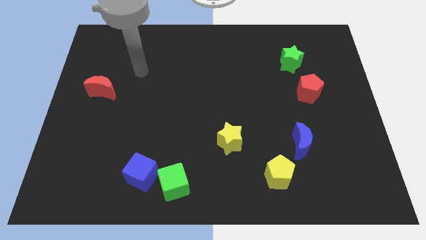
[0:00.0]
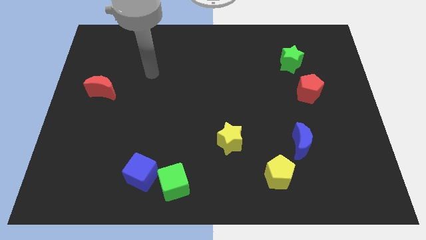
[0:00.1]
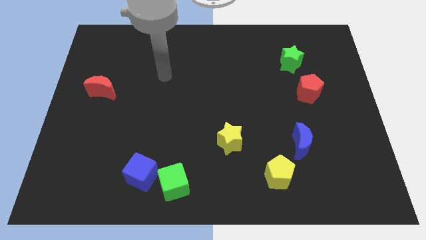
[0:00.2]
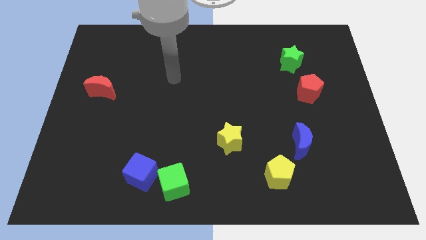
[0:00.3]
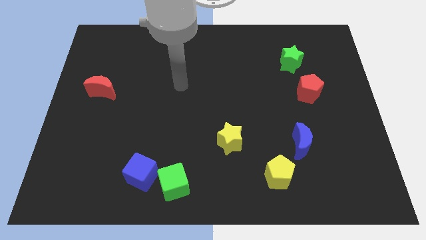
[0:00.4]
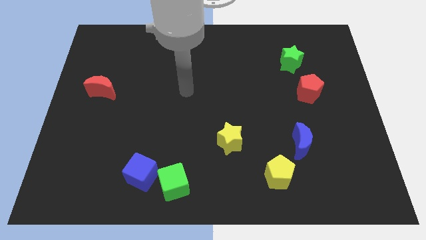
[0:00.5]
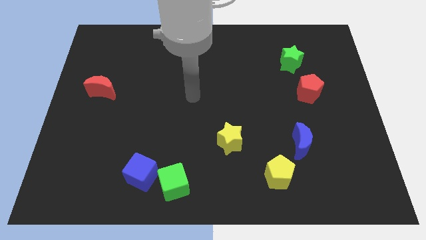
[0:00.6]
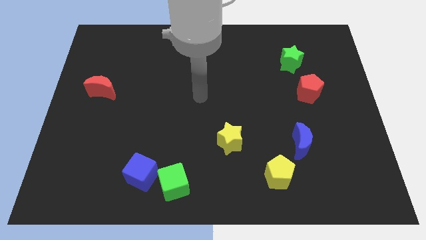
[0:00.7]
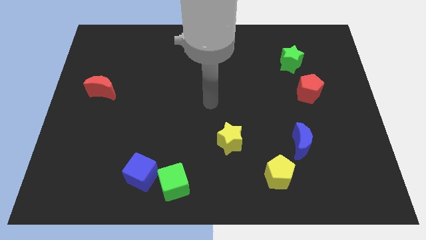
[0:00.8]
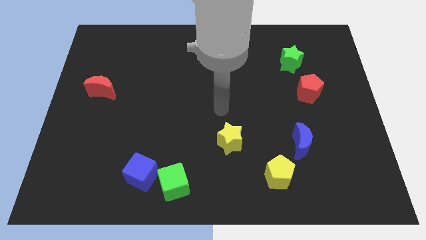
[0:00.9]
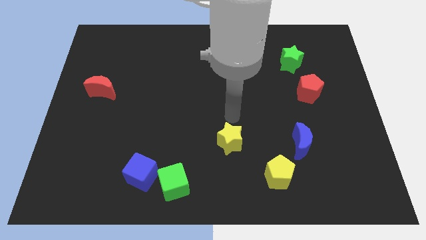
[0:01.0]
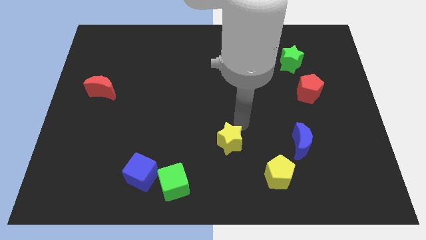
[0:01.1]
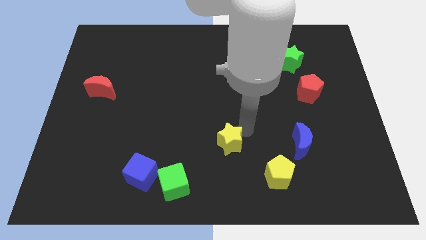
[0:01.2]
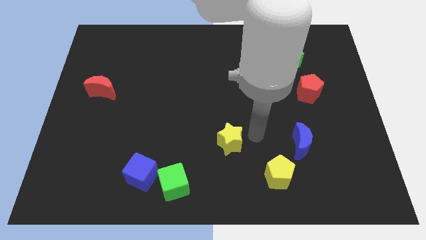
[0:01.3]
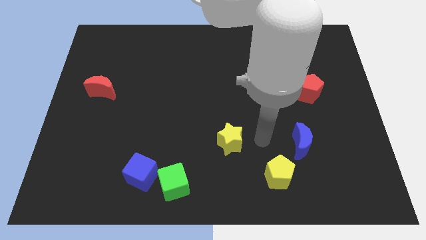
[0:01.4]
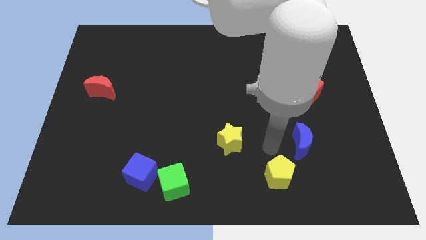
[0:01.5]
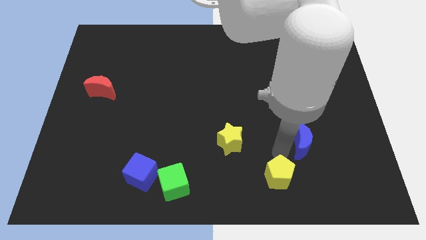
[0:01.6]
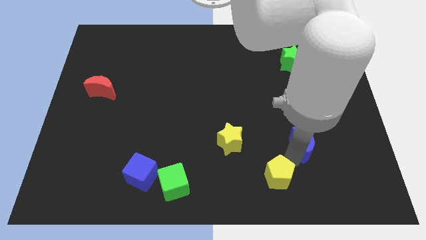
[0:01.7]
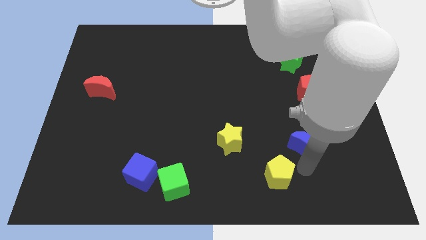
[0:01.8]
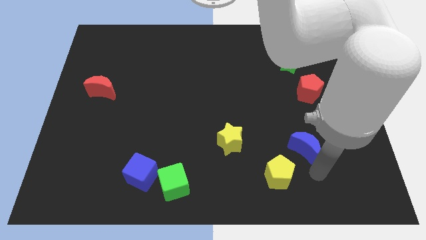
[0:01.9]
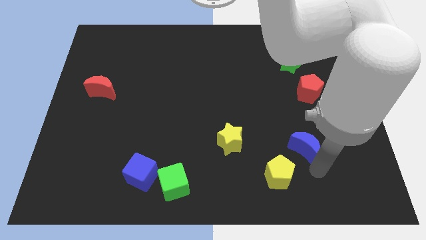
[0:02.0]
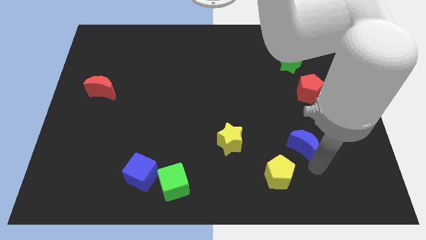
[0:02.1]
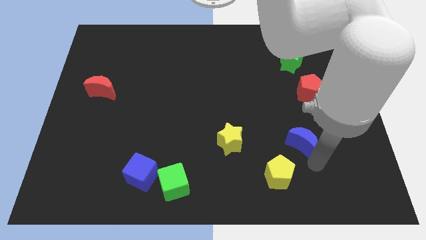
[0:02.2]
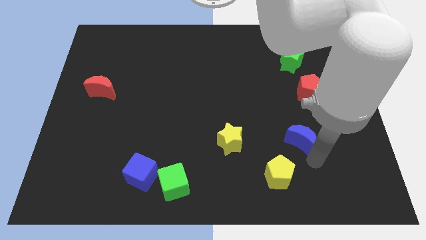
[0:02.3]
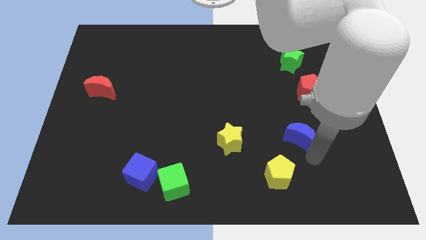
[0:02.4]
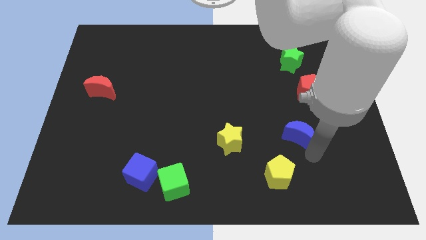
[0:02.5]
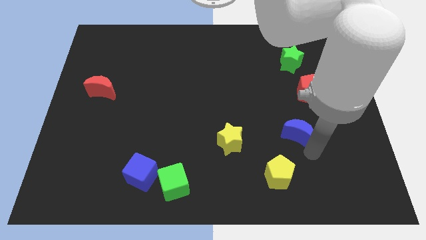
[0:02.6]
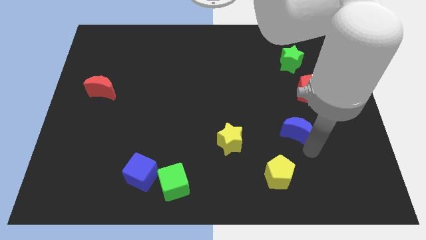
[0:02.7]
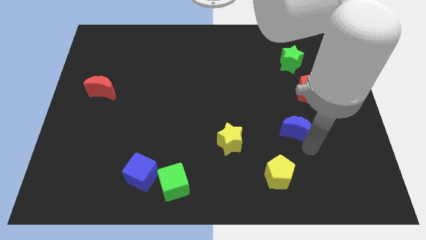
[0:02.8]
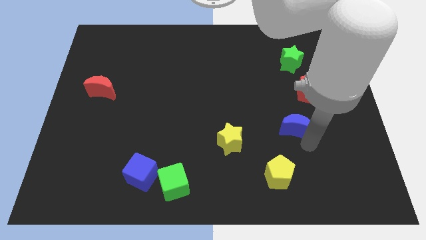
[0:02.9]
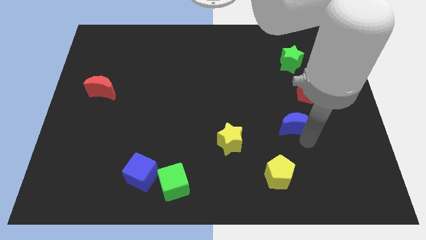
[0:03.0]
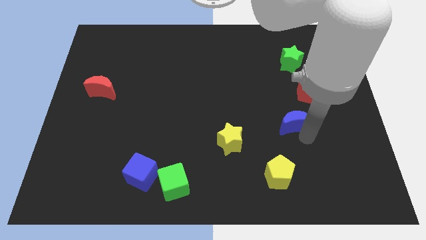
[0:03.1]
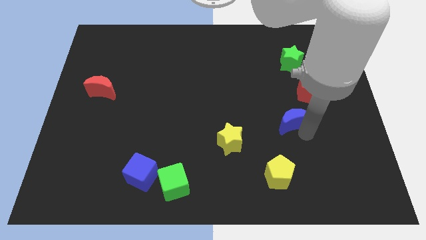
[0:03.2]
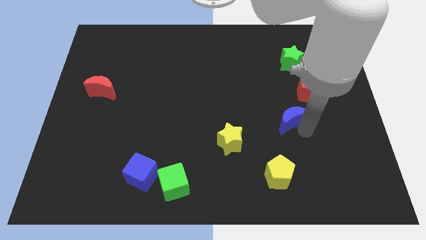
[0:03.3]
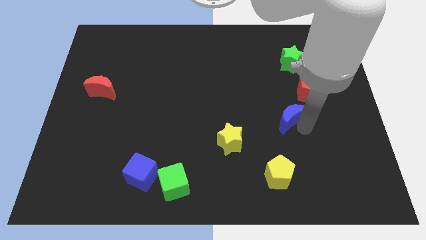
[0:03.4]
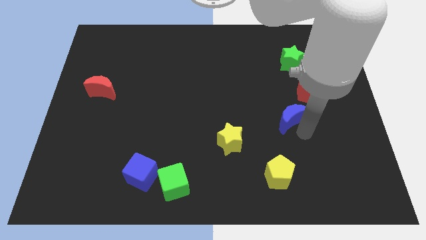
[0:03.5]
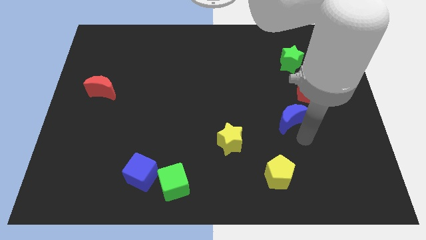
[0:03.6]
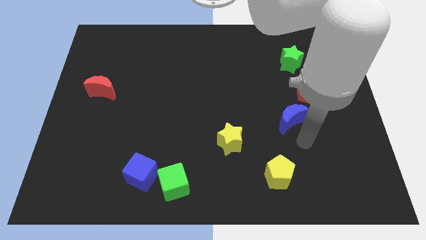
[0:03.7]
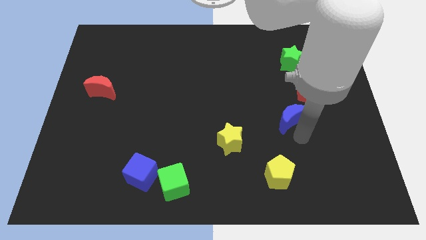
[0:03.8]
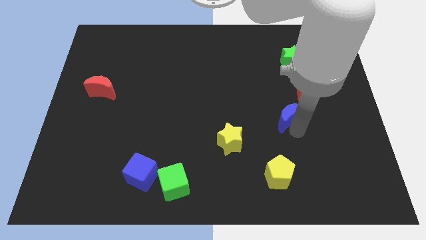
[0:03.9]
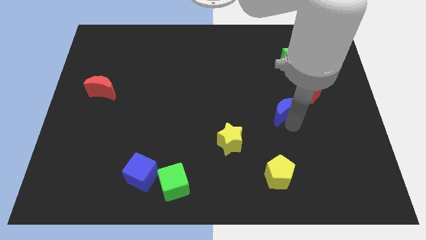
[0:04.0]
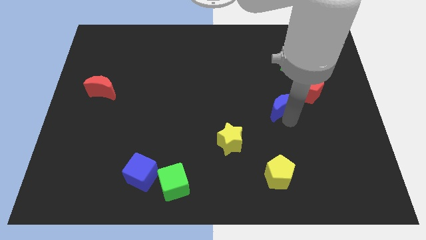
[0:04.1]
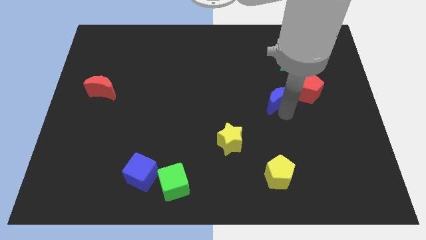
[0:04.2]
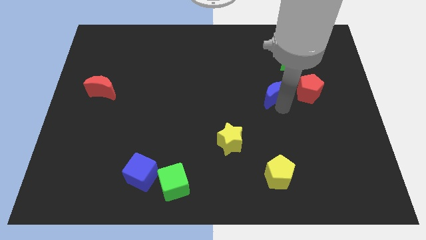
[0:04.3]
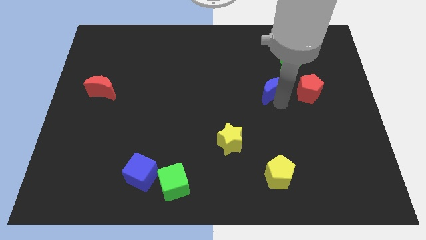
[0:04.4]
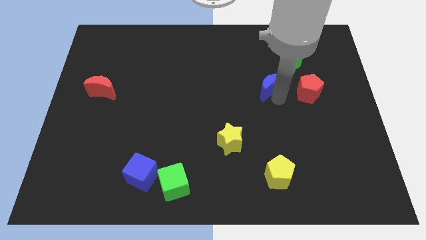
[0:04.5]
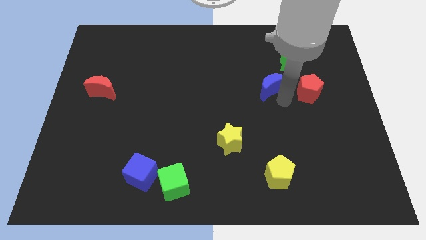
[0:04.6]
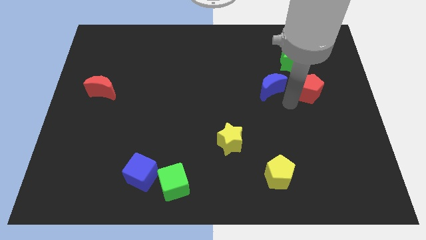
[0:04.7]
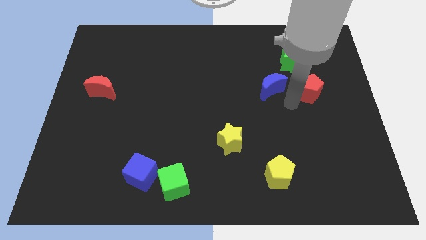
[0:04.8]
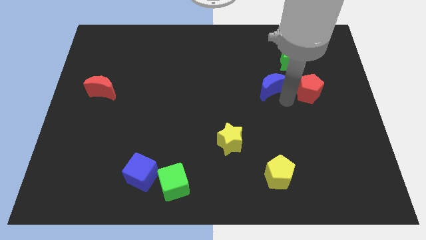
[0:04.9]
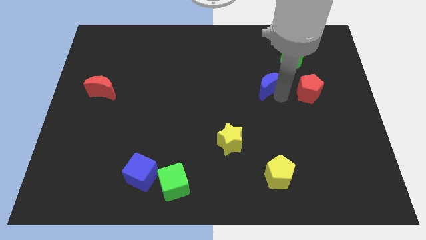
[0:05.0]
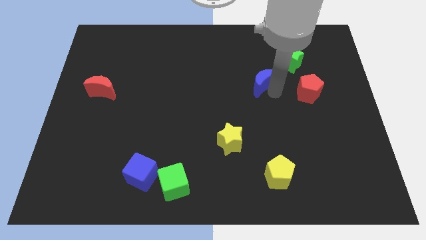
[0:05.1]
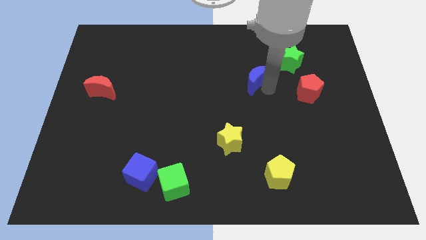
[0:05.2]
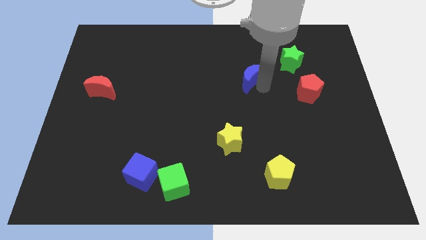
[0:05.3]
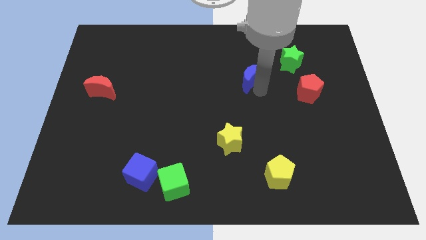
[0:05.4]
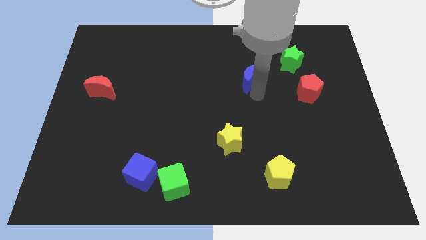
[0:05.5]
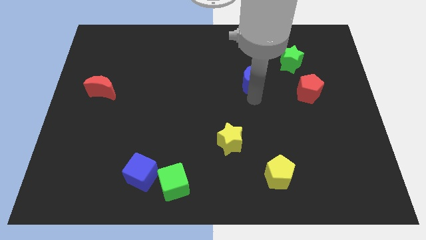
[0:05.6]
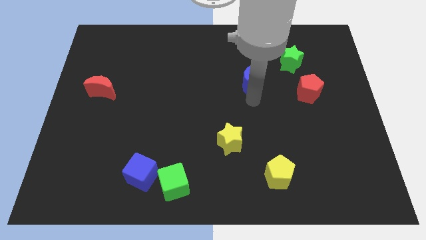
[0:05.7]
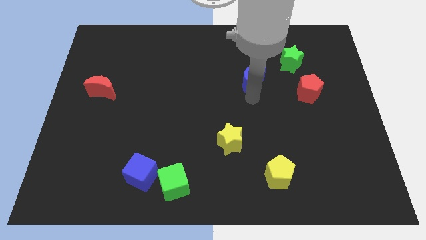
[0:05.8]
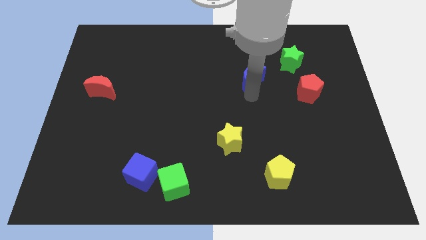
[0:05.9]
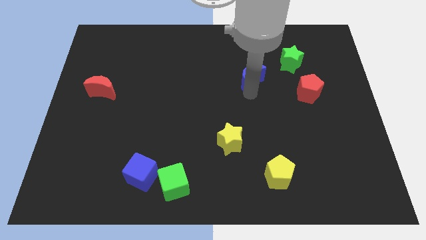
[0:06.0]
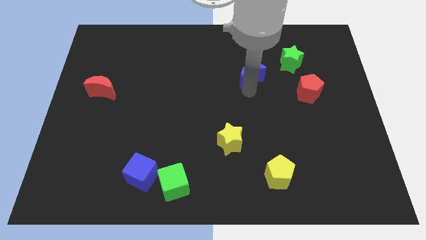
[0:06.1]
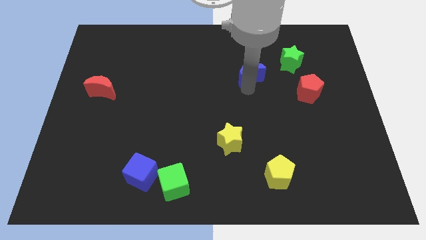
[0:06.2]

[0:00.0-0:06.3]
move the blue moon to the left of the green star

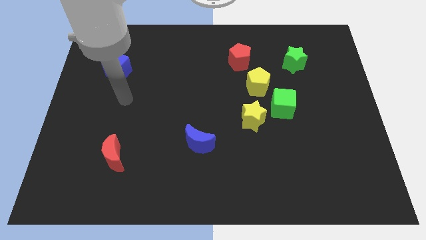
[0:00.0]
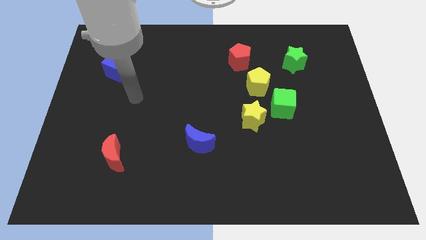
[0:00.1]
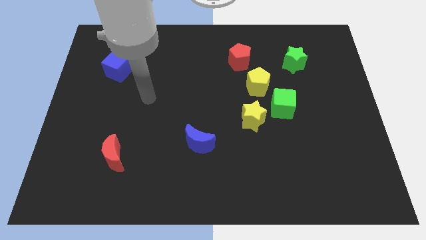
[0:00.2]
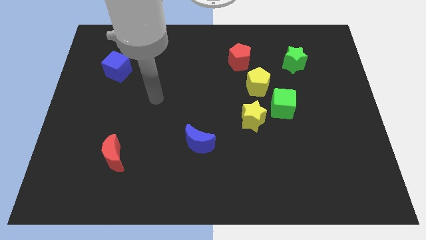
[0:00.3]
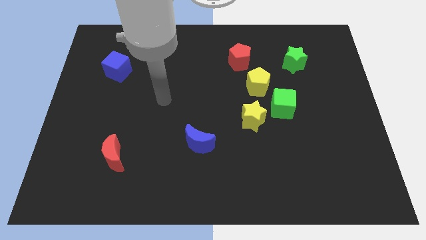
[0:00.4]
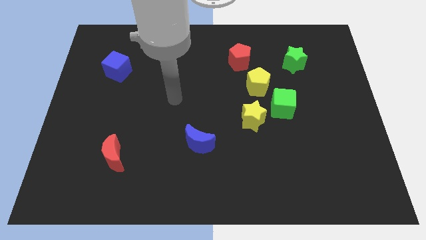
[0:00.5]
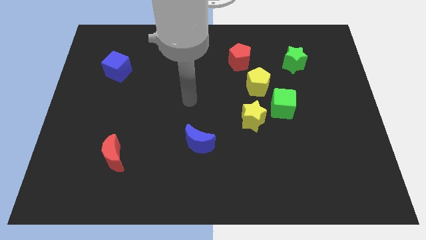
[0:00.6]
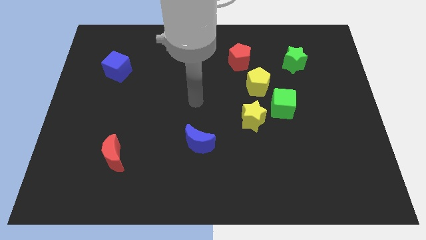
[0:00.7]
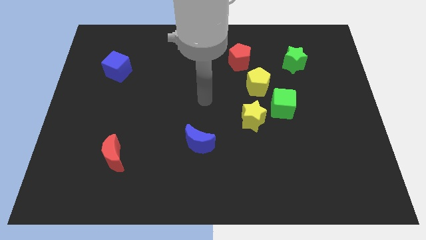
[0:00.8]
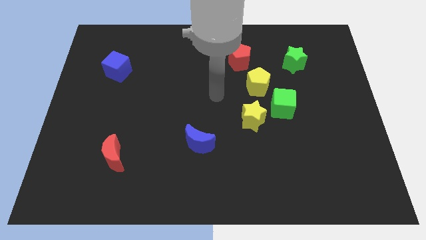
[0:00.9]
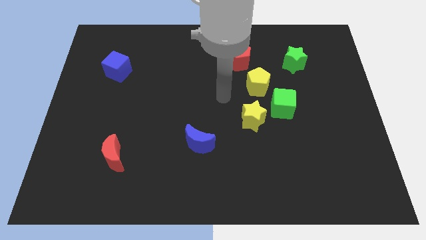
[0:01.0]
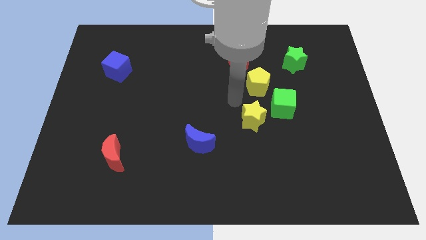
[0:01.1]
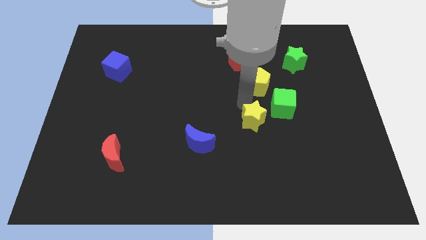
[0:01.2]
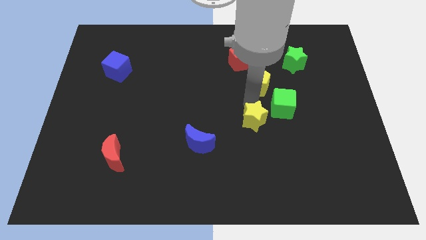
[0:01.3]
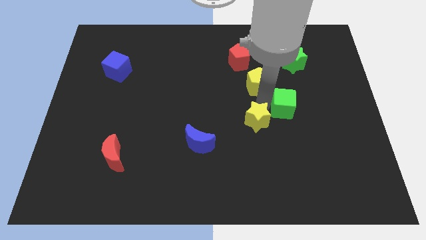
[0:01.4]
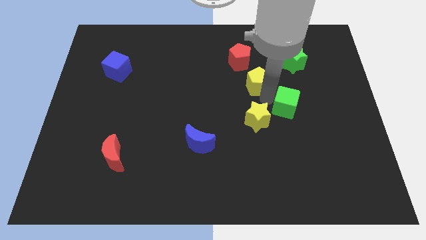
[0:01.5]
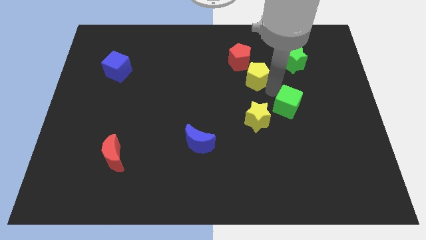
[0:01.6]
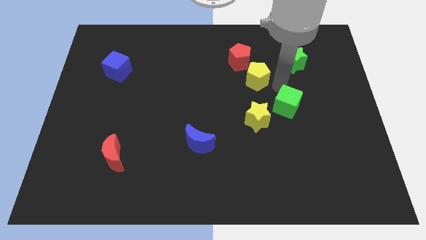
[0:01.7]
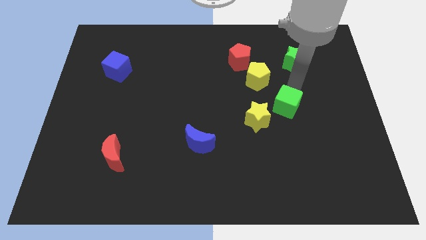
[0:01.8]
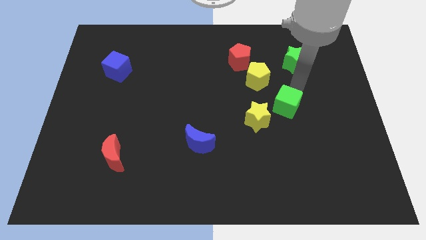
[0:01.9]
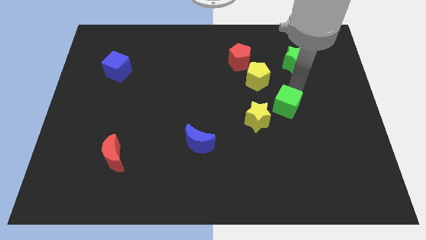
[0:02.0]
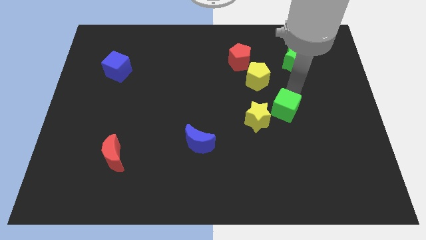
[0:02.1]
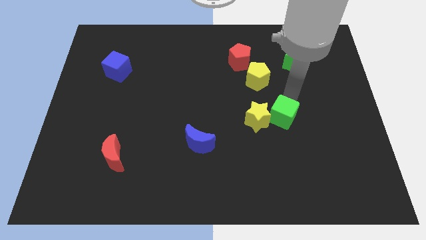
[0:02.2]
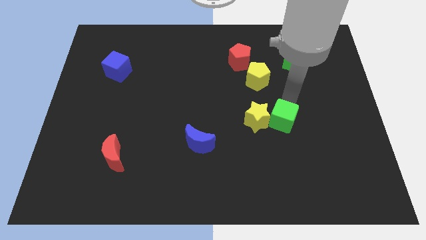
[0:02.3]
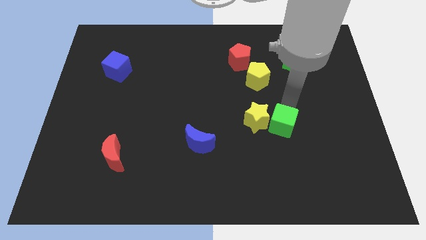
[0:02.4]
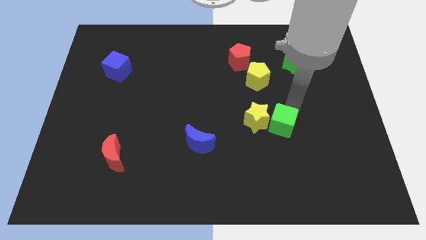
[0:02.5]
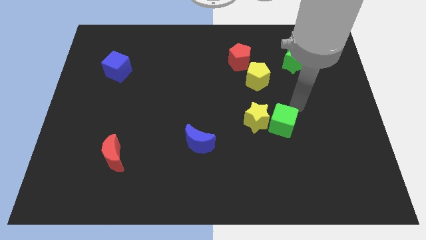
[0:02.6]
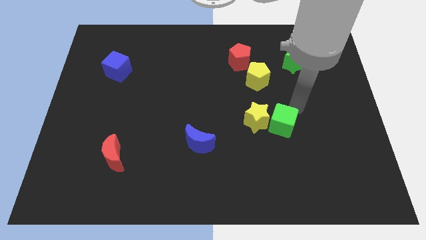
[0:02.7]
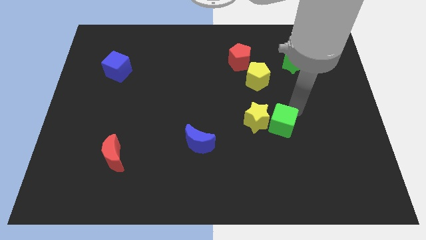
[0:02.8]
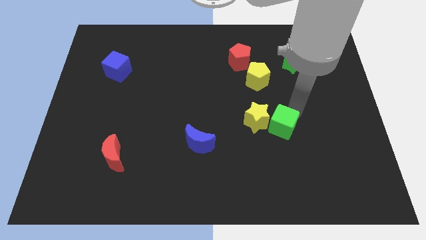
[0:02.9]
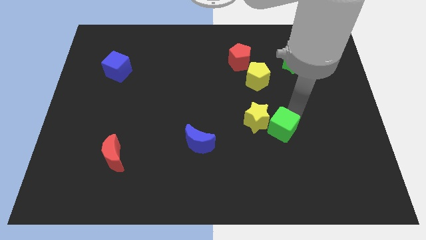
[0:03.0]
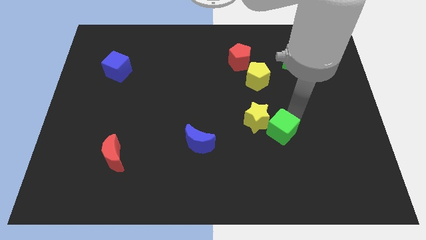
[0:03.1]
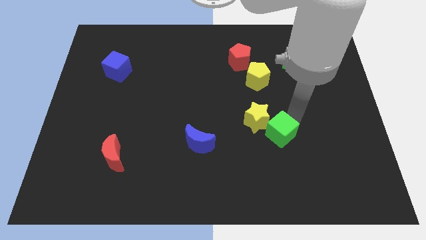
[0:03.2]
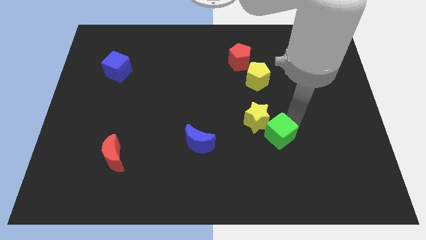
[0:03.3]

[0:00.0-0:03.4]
move the green cube to the bottom of the yellow star
